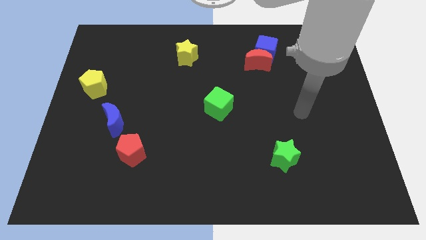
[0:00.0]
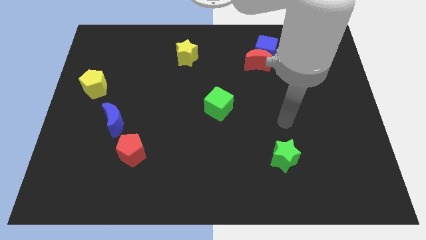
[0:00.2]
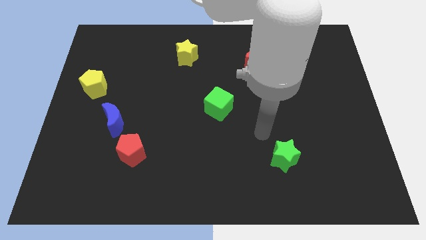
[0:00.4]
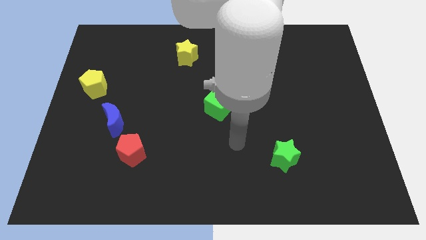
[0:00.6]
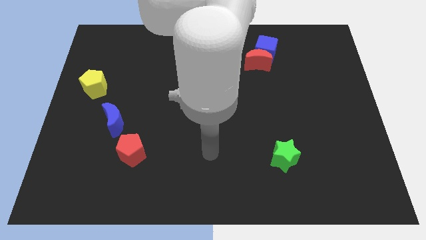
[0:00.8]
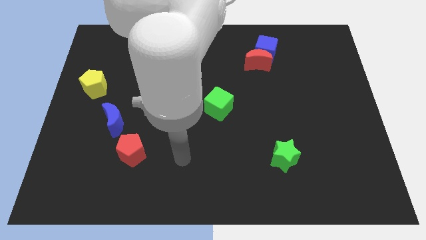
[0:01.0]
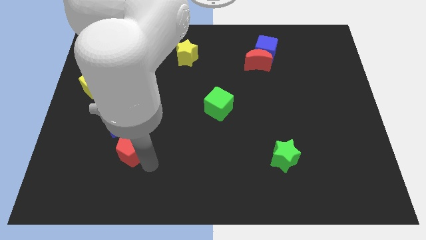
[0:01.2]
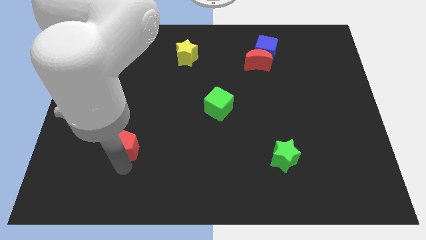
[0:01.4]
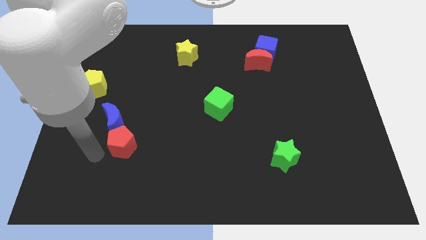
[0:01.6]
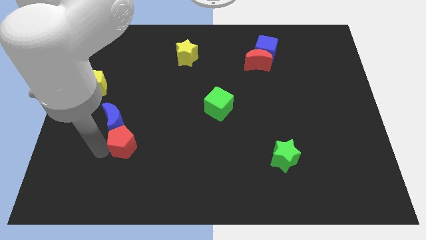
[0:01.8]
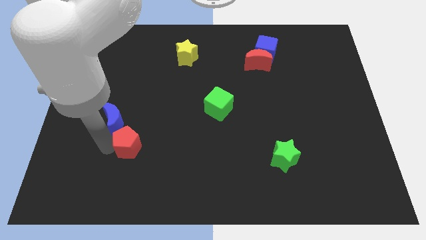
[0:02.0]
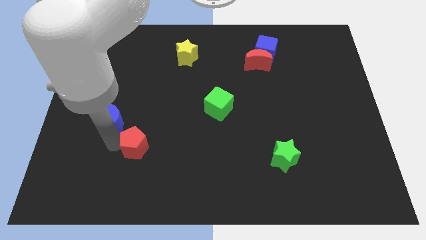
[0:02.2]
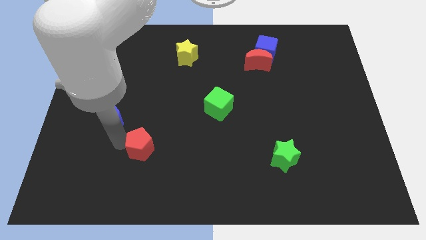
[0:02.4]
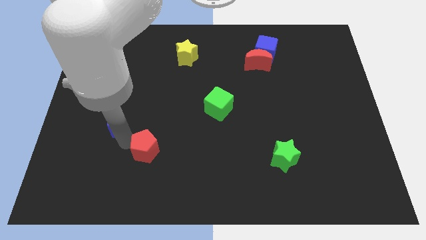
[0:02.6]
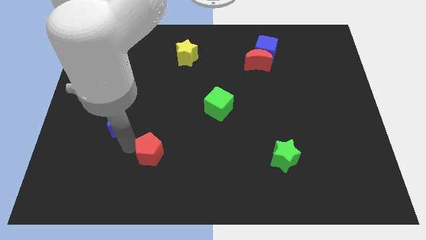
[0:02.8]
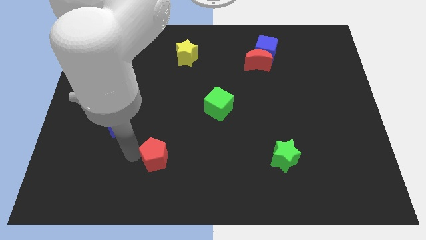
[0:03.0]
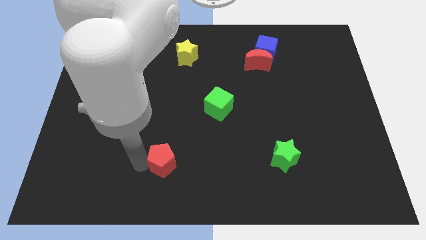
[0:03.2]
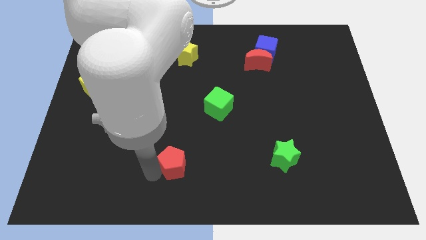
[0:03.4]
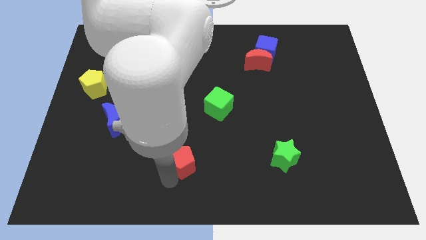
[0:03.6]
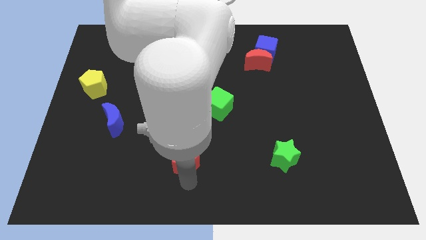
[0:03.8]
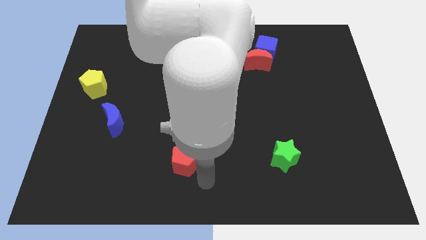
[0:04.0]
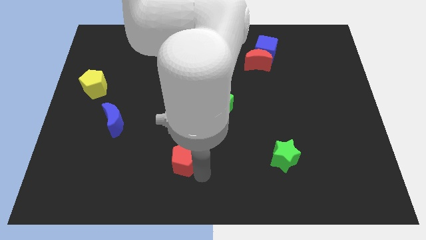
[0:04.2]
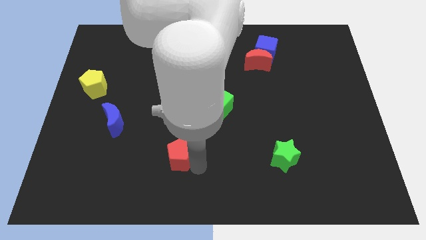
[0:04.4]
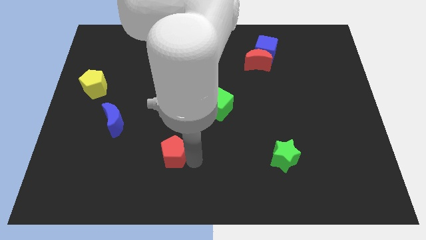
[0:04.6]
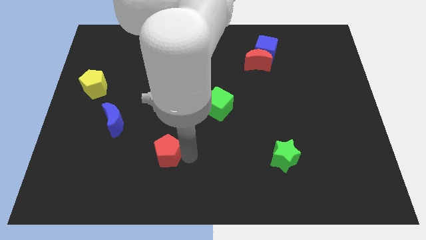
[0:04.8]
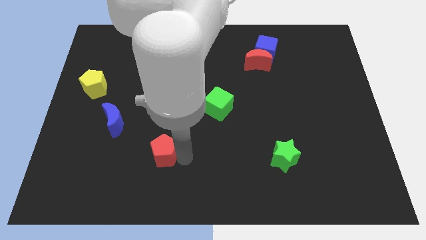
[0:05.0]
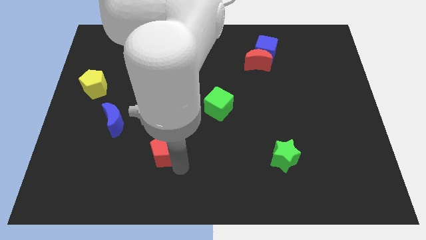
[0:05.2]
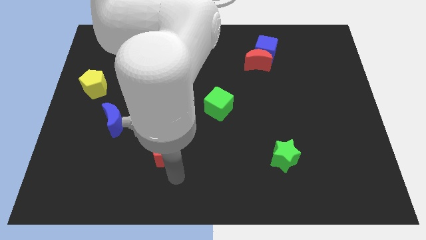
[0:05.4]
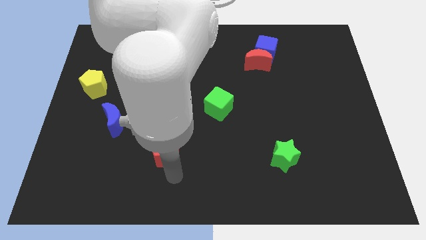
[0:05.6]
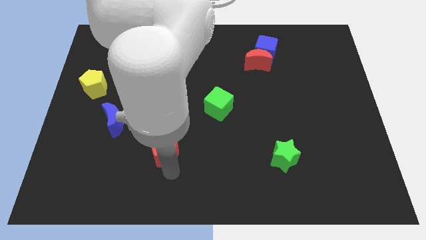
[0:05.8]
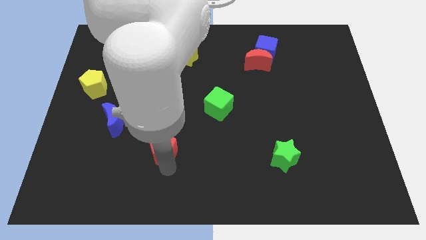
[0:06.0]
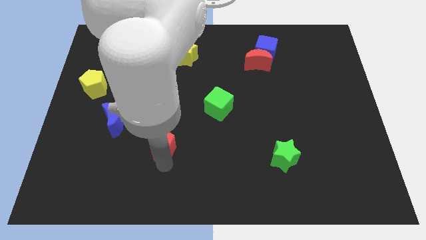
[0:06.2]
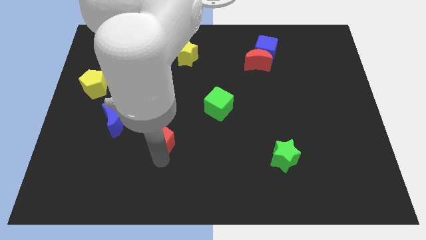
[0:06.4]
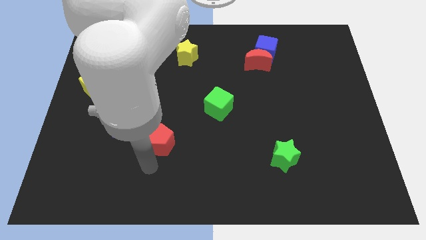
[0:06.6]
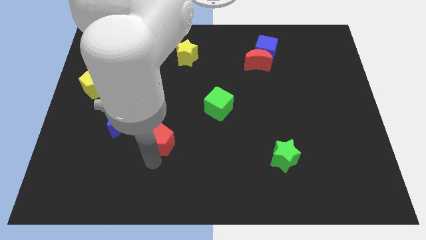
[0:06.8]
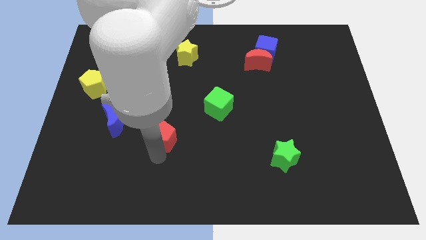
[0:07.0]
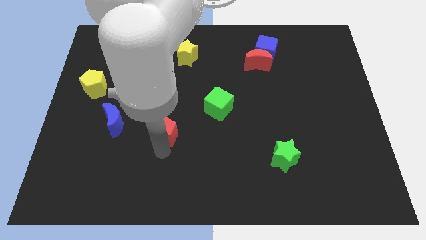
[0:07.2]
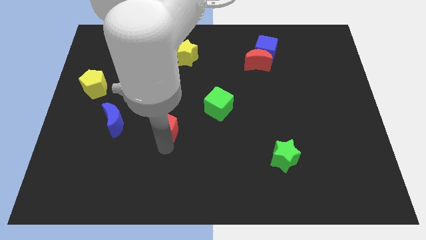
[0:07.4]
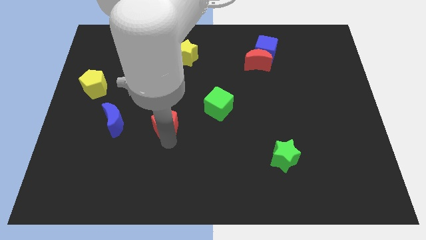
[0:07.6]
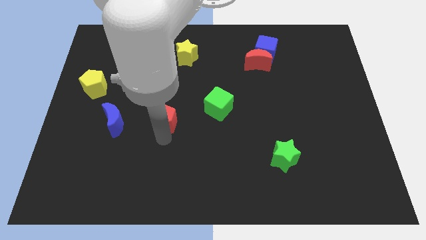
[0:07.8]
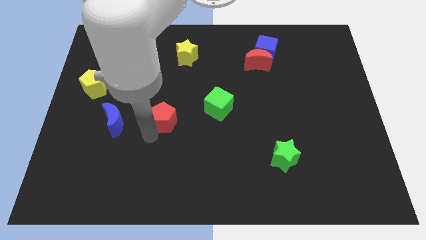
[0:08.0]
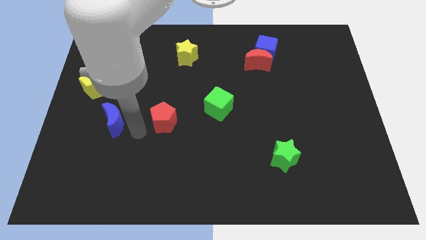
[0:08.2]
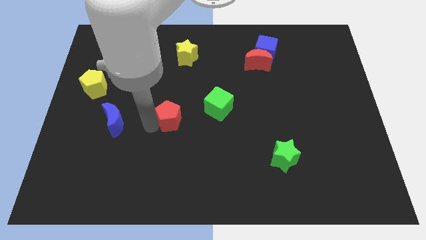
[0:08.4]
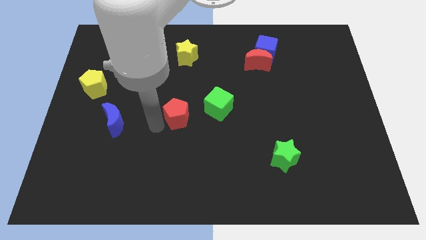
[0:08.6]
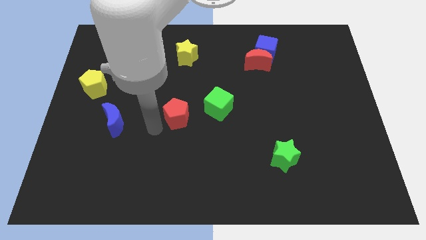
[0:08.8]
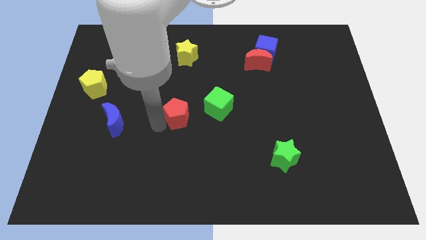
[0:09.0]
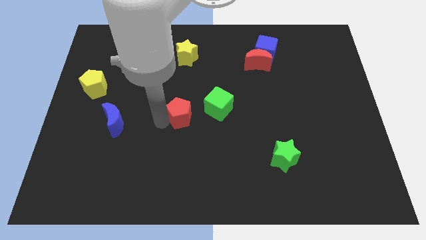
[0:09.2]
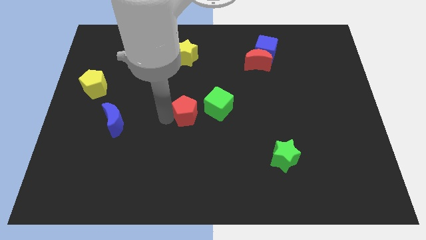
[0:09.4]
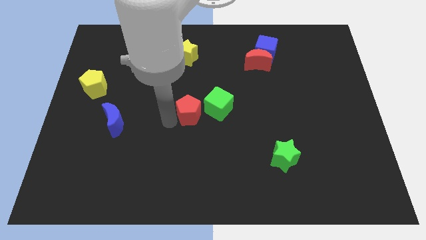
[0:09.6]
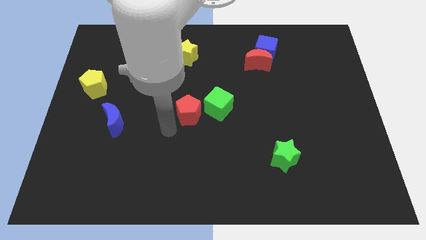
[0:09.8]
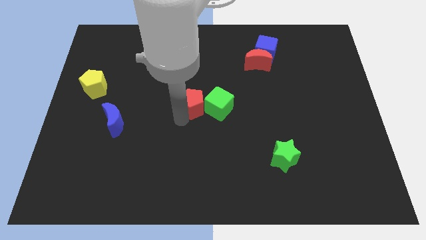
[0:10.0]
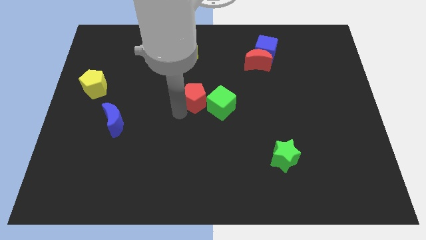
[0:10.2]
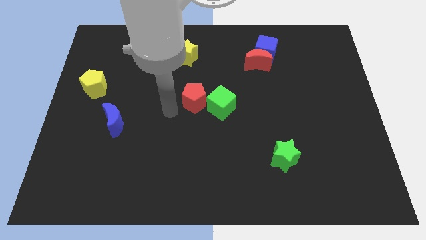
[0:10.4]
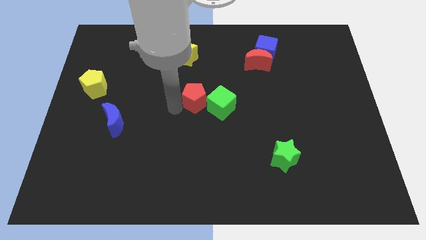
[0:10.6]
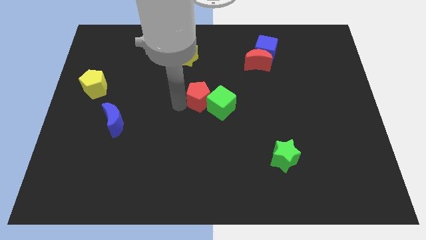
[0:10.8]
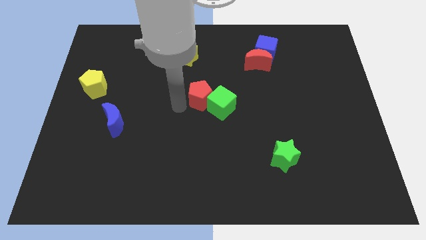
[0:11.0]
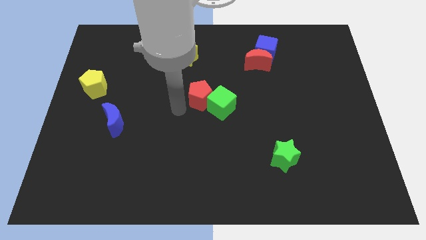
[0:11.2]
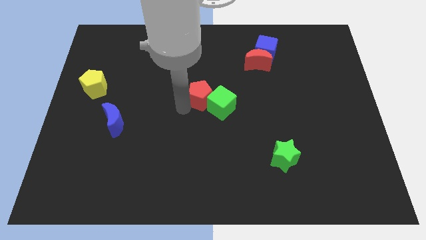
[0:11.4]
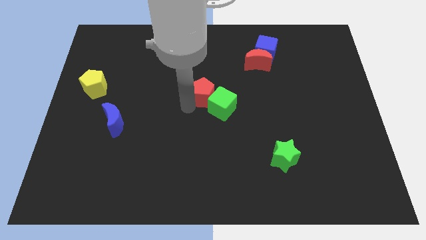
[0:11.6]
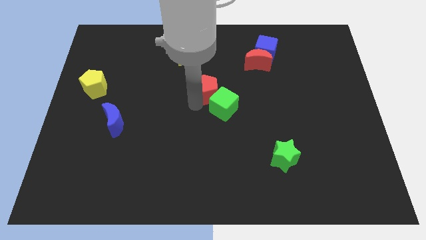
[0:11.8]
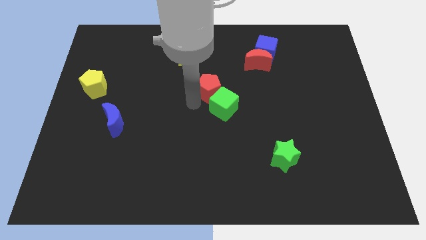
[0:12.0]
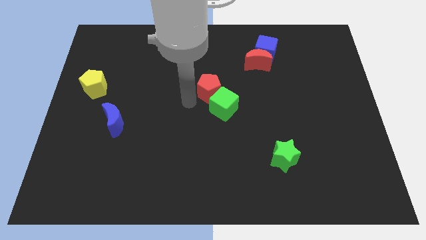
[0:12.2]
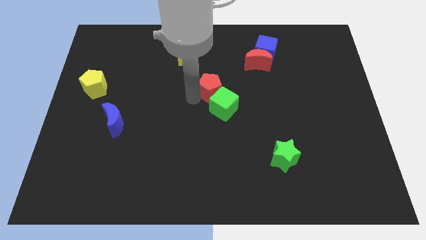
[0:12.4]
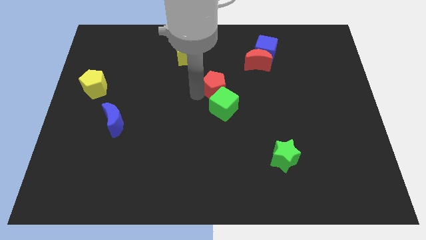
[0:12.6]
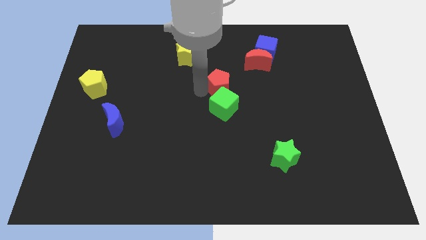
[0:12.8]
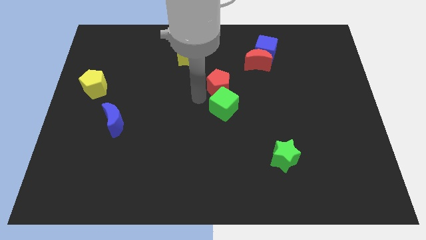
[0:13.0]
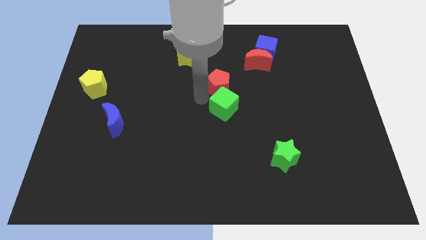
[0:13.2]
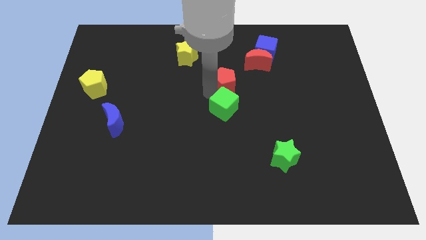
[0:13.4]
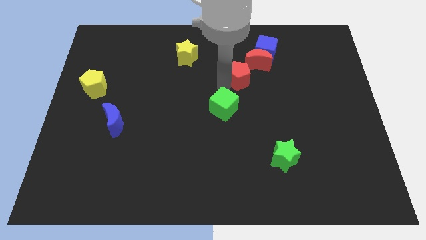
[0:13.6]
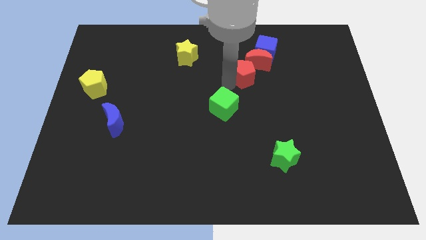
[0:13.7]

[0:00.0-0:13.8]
move the red pentagon close to the red moon
